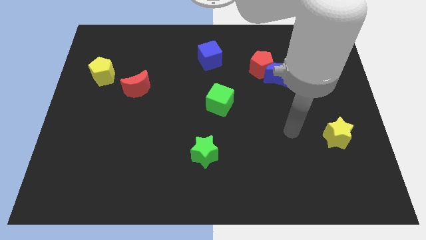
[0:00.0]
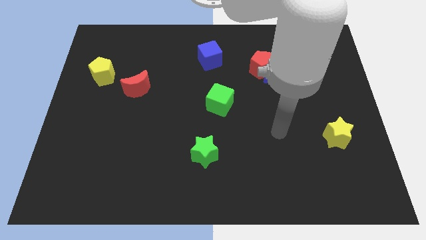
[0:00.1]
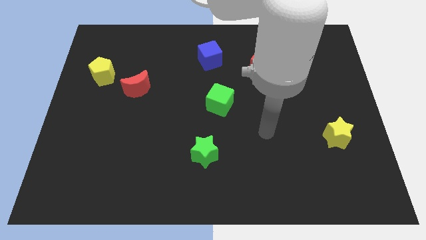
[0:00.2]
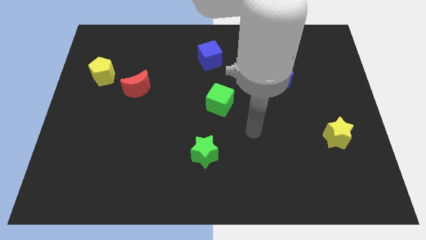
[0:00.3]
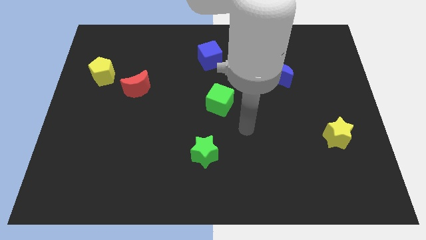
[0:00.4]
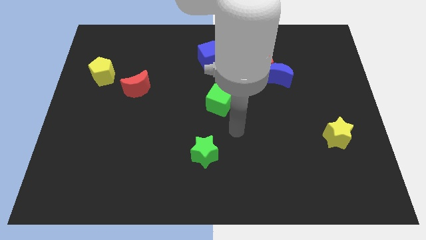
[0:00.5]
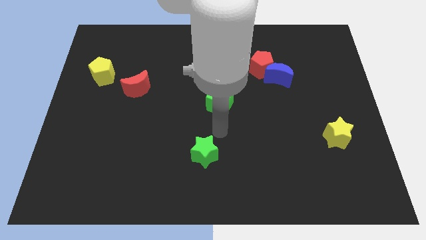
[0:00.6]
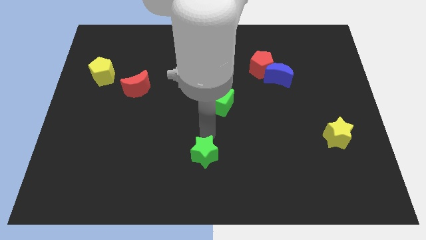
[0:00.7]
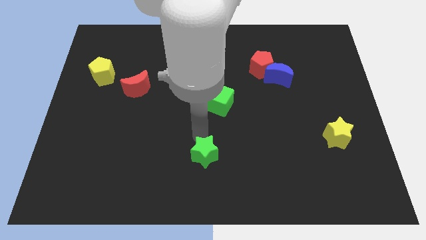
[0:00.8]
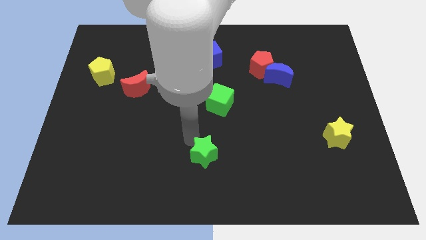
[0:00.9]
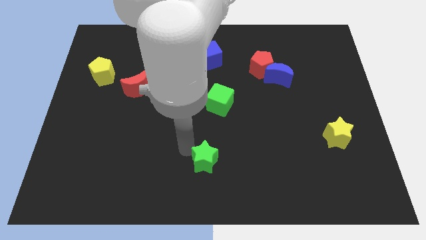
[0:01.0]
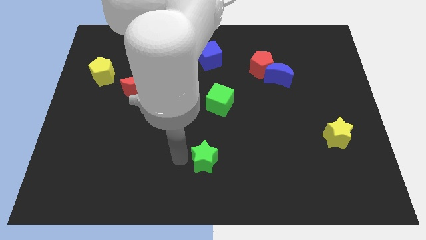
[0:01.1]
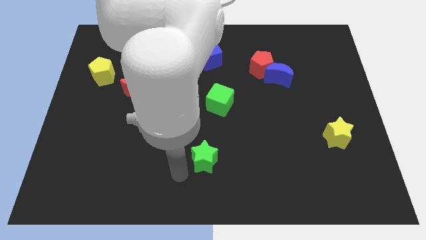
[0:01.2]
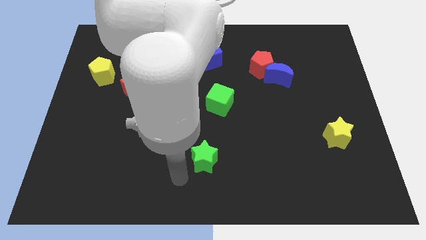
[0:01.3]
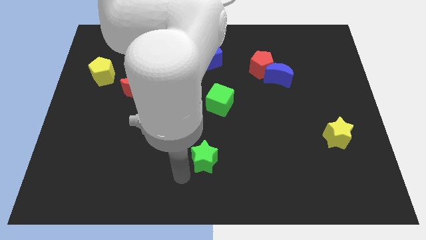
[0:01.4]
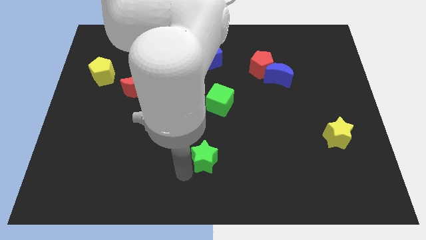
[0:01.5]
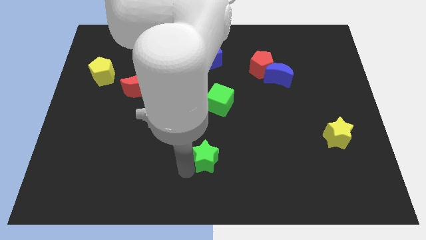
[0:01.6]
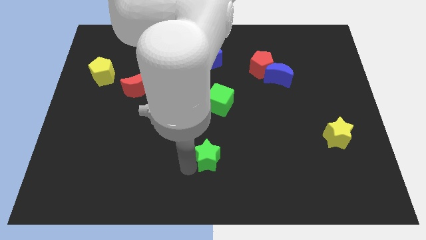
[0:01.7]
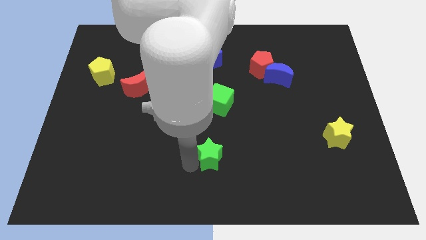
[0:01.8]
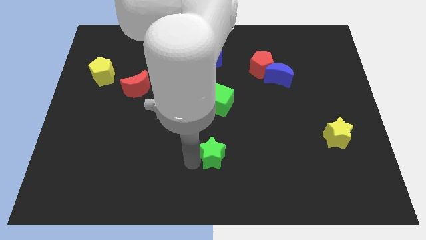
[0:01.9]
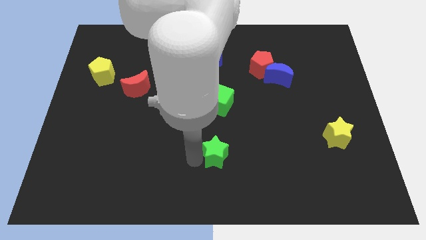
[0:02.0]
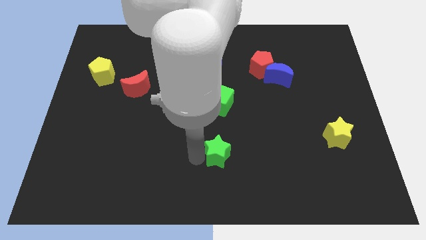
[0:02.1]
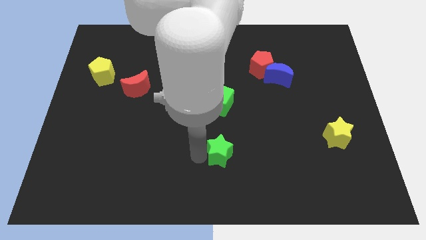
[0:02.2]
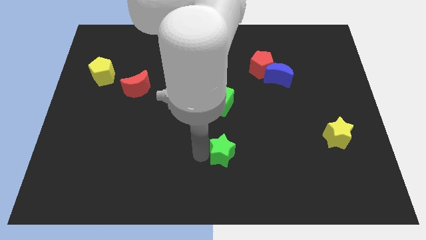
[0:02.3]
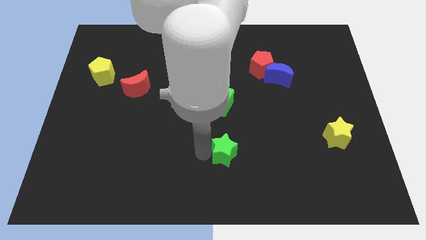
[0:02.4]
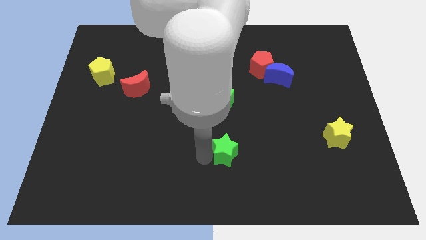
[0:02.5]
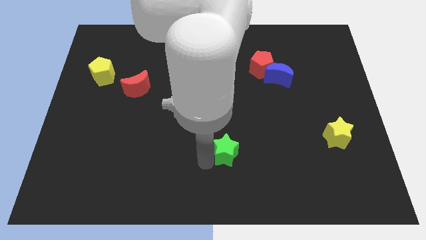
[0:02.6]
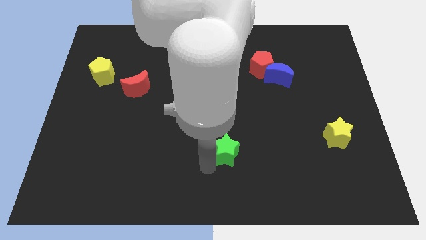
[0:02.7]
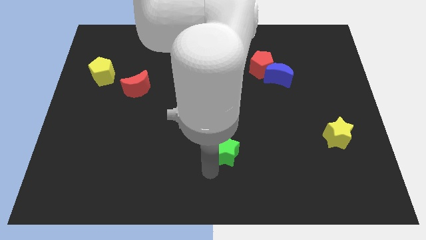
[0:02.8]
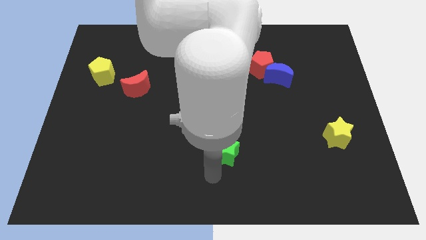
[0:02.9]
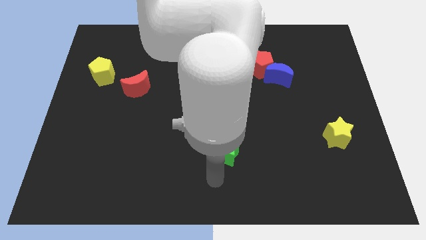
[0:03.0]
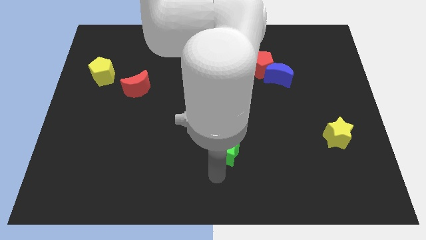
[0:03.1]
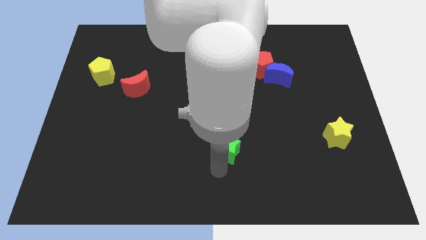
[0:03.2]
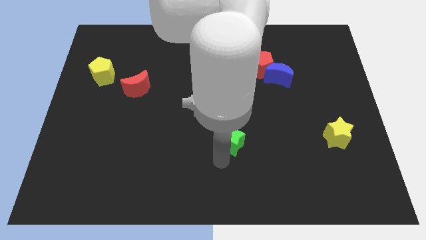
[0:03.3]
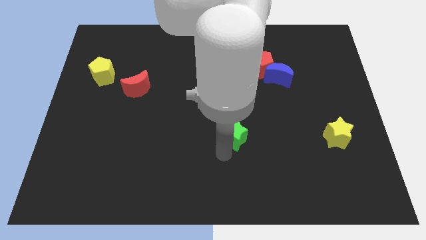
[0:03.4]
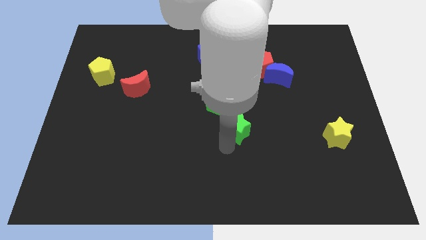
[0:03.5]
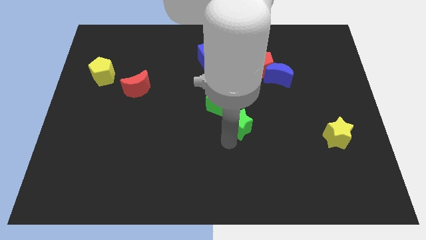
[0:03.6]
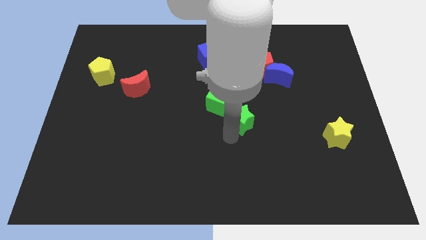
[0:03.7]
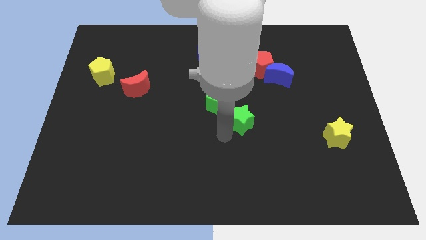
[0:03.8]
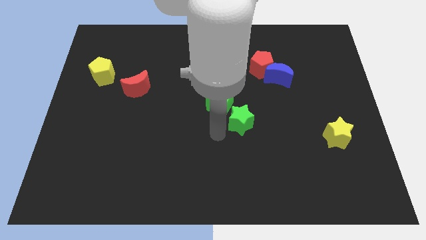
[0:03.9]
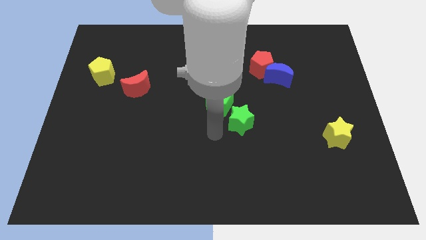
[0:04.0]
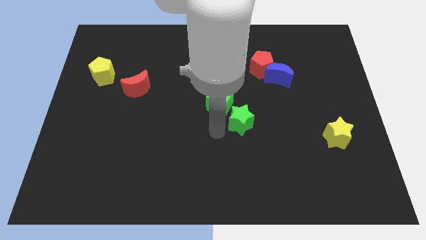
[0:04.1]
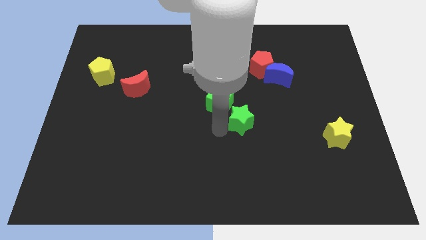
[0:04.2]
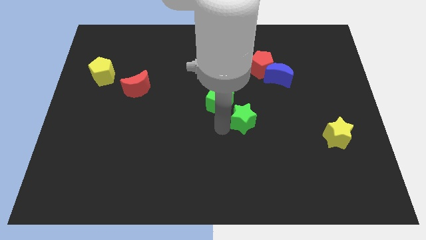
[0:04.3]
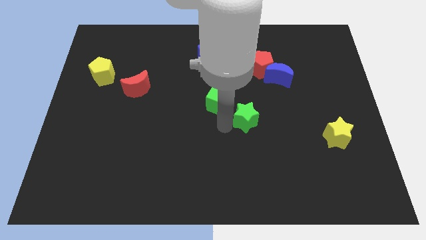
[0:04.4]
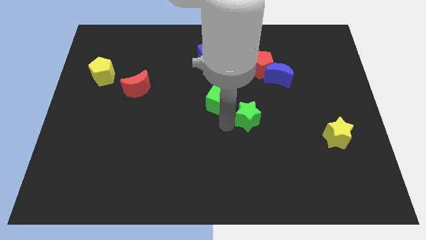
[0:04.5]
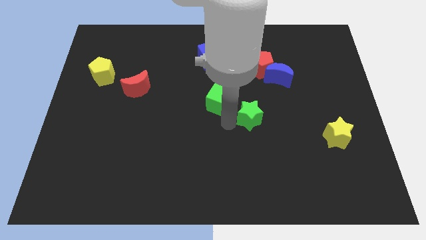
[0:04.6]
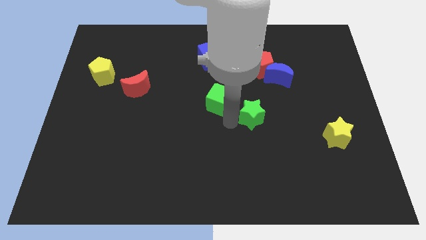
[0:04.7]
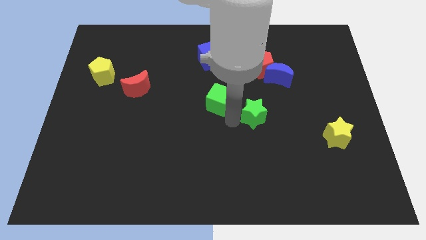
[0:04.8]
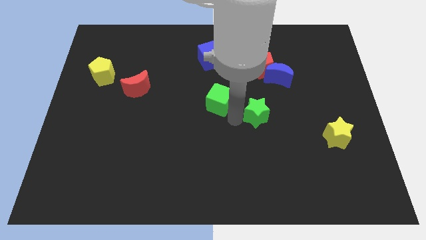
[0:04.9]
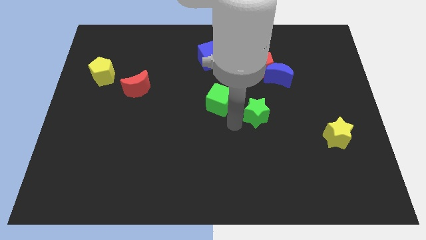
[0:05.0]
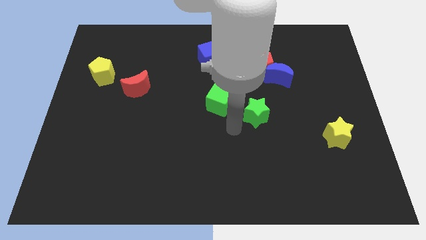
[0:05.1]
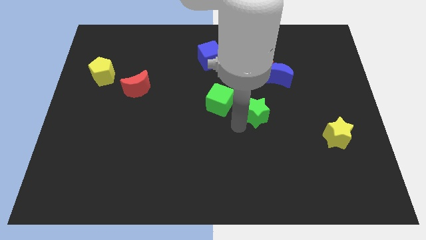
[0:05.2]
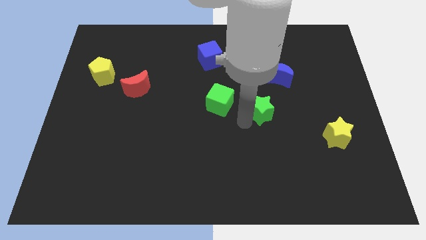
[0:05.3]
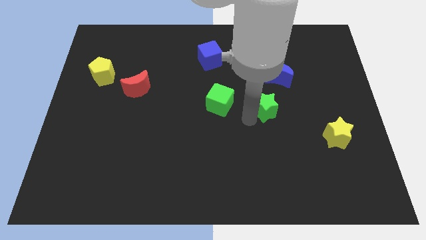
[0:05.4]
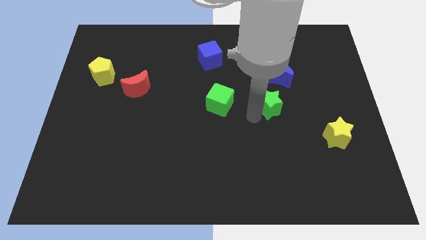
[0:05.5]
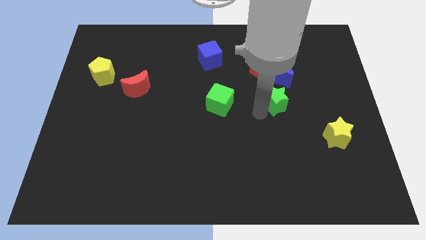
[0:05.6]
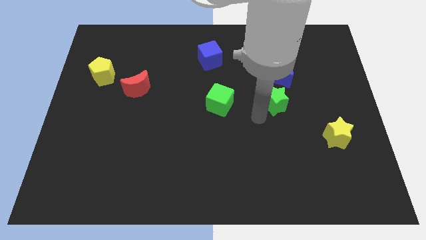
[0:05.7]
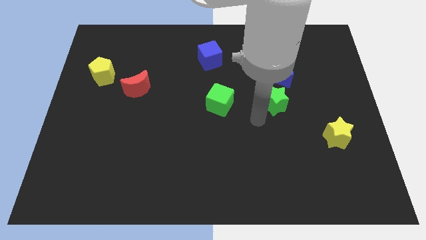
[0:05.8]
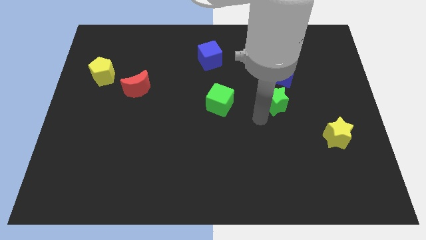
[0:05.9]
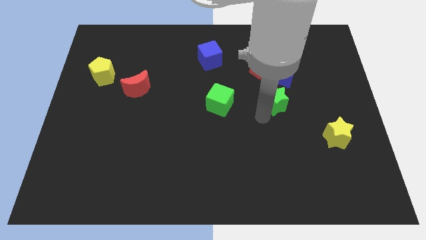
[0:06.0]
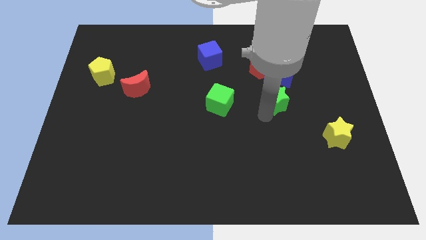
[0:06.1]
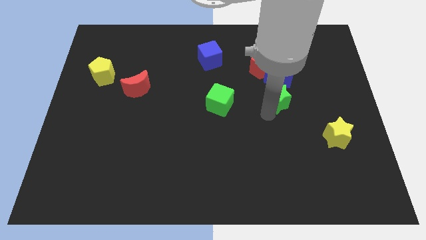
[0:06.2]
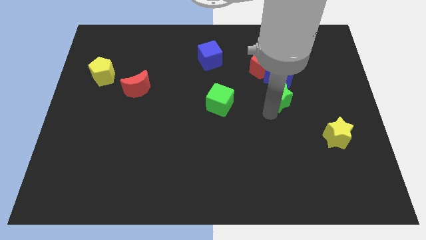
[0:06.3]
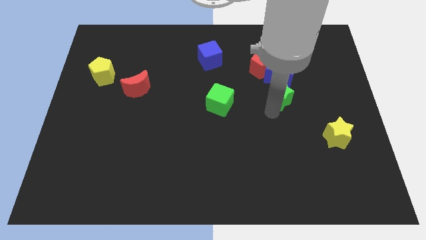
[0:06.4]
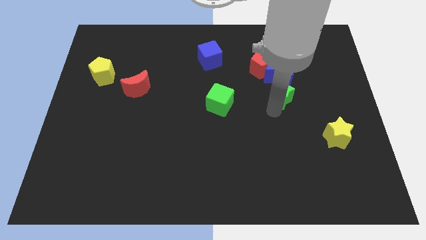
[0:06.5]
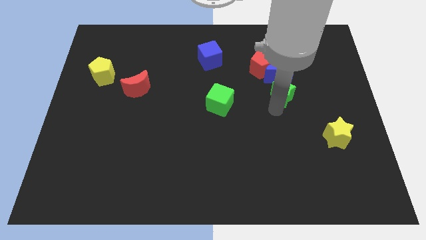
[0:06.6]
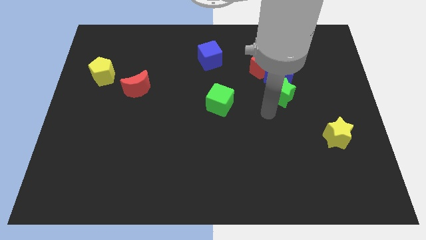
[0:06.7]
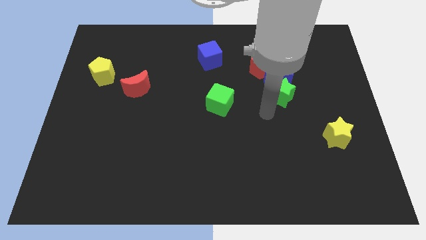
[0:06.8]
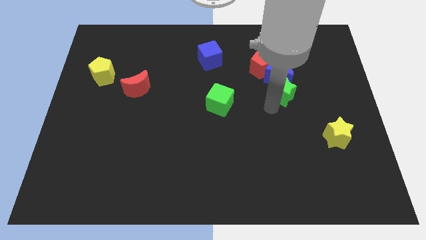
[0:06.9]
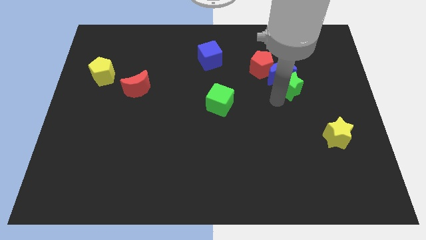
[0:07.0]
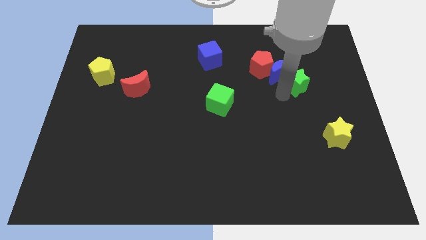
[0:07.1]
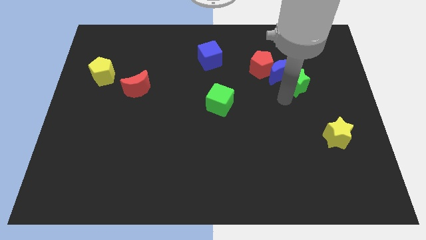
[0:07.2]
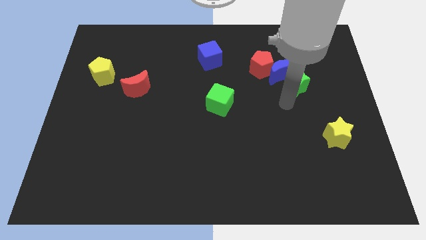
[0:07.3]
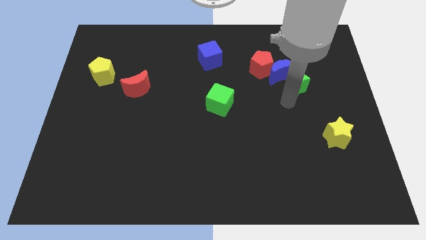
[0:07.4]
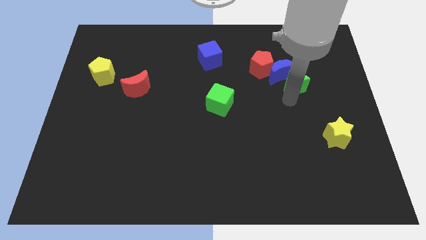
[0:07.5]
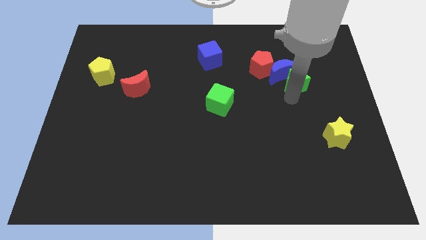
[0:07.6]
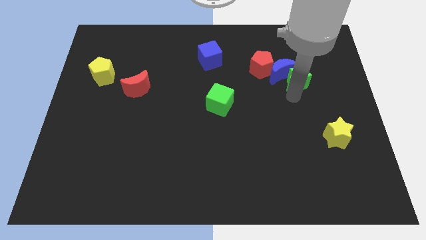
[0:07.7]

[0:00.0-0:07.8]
move the green star just right of the red pentagon
